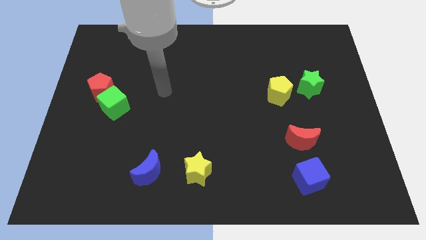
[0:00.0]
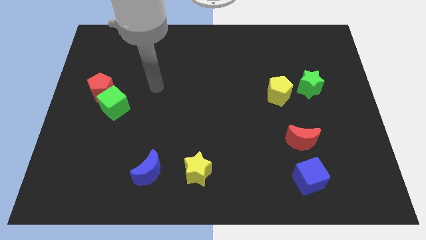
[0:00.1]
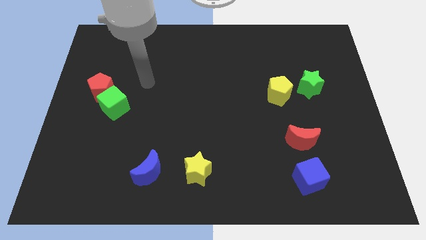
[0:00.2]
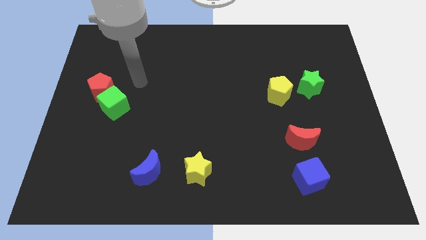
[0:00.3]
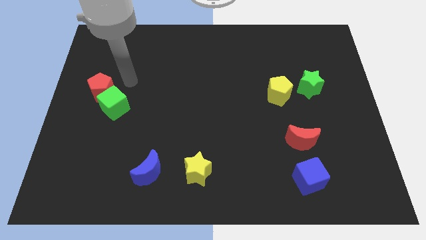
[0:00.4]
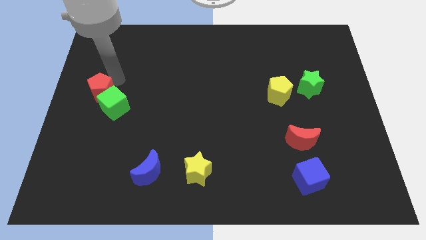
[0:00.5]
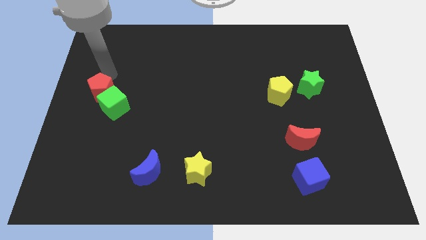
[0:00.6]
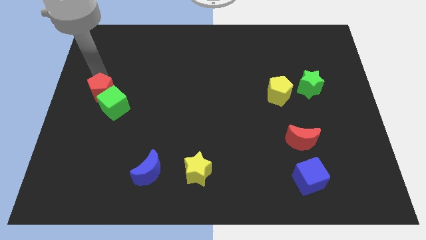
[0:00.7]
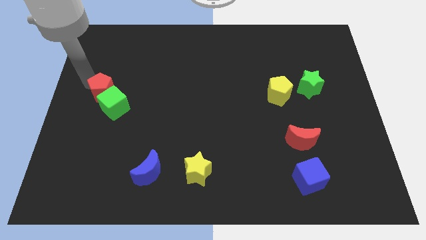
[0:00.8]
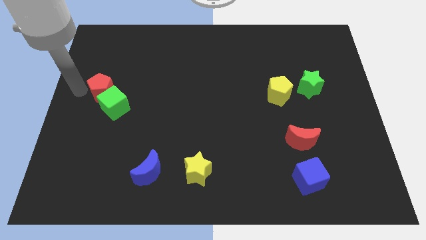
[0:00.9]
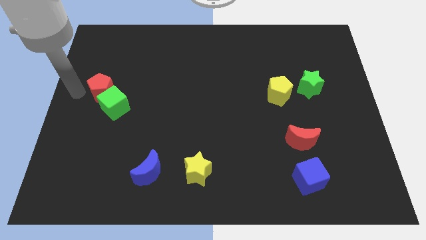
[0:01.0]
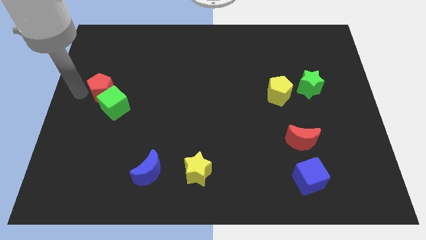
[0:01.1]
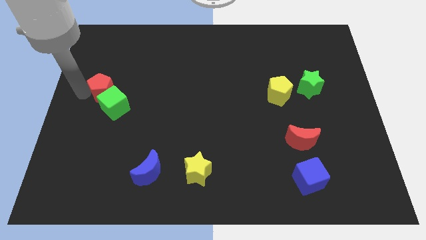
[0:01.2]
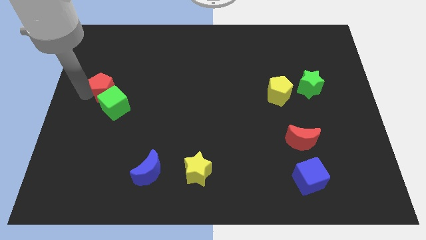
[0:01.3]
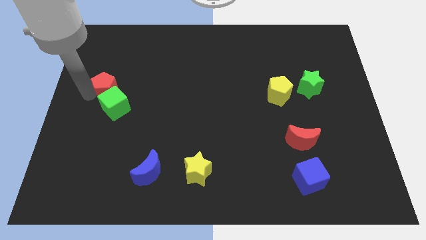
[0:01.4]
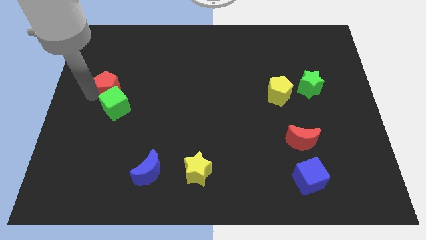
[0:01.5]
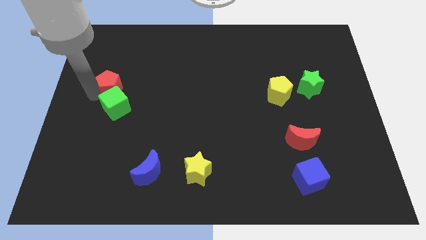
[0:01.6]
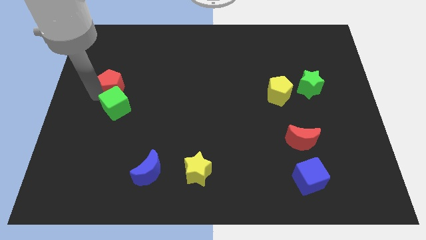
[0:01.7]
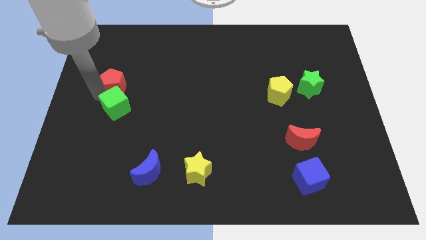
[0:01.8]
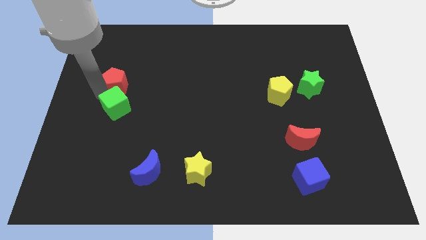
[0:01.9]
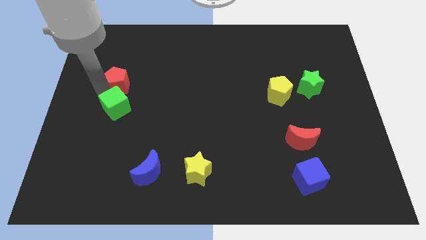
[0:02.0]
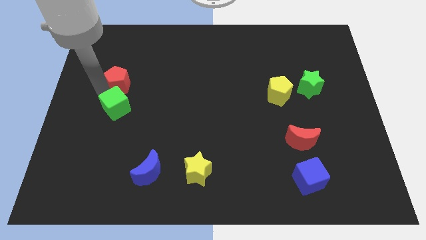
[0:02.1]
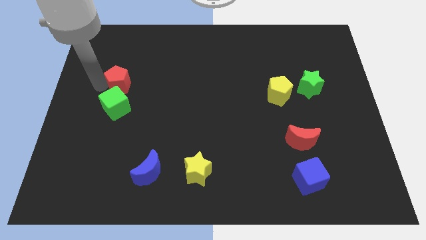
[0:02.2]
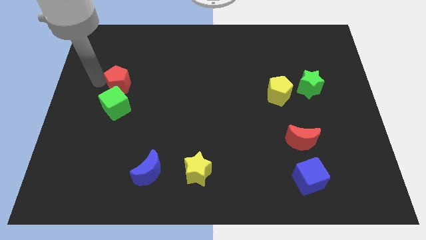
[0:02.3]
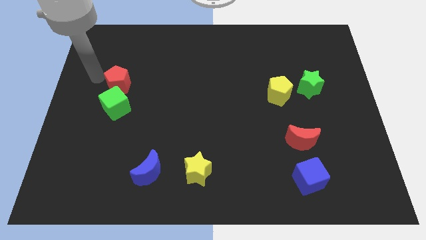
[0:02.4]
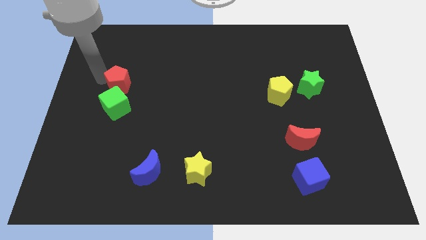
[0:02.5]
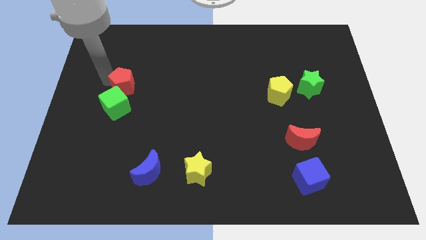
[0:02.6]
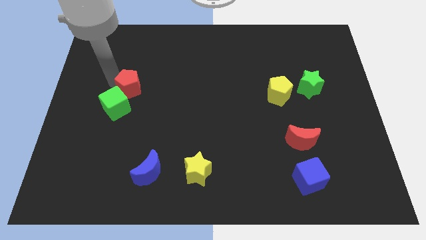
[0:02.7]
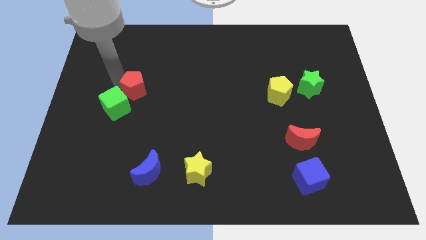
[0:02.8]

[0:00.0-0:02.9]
push the red pentagon a little bit right

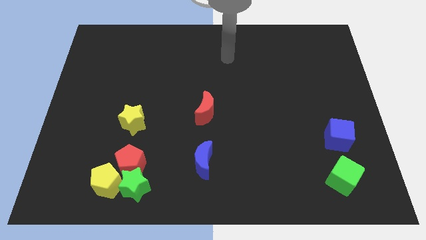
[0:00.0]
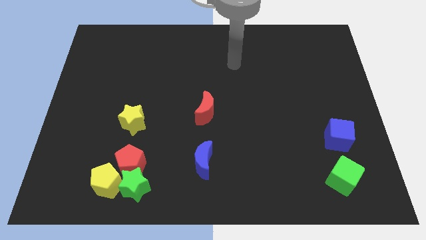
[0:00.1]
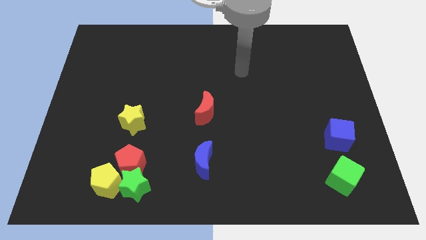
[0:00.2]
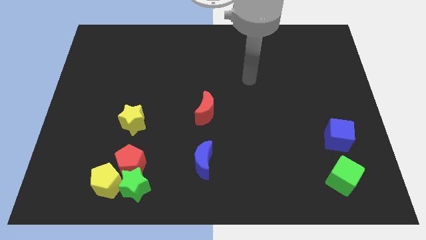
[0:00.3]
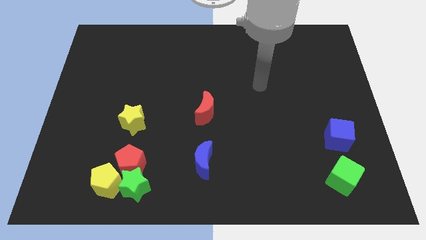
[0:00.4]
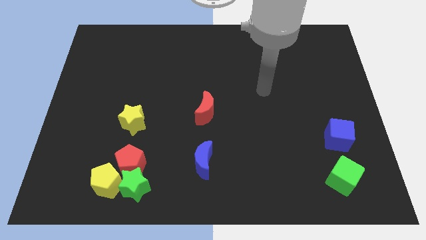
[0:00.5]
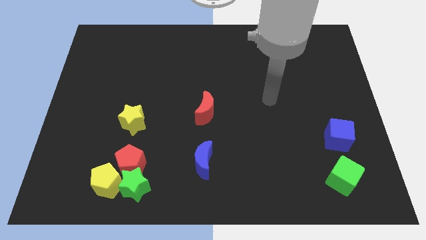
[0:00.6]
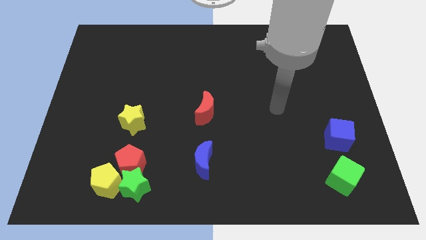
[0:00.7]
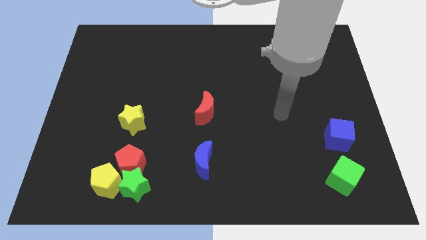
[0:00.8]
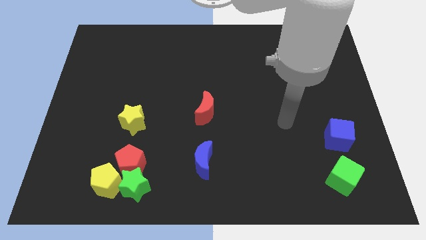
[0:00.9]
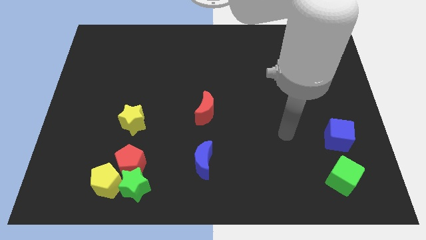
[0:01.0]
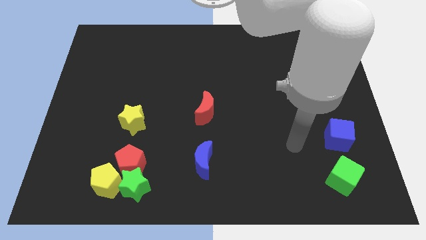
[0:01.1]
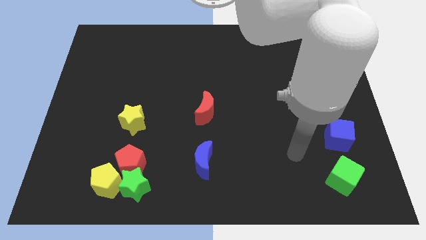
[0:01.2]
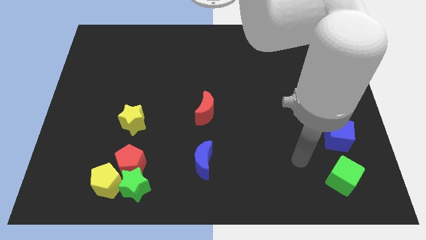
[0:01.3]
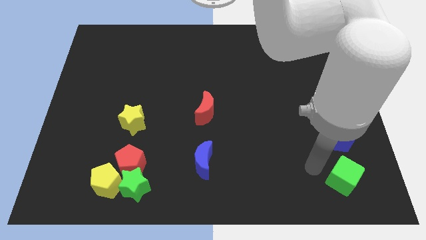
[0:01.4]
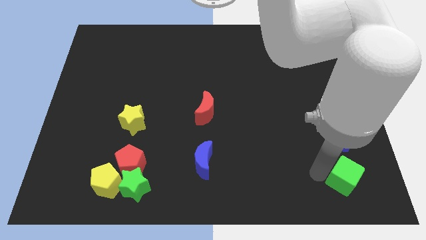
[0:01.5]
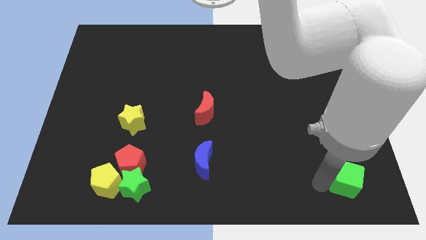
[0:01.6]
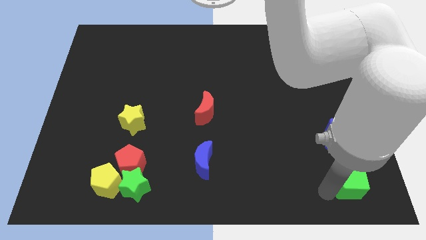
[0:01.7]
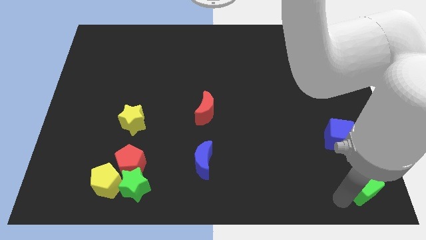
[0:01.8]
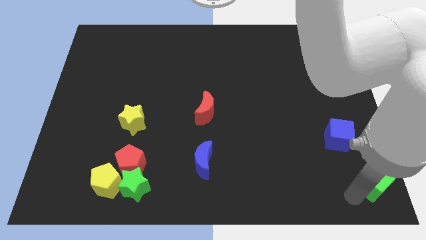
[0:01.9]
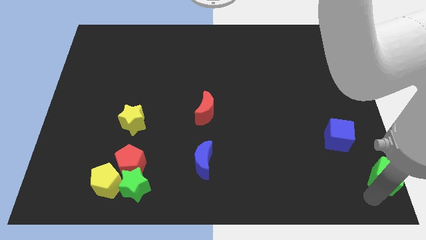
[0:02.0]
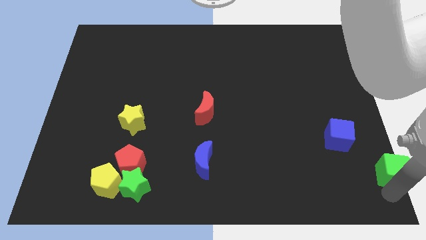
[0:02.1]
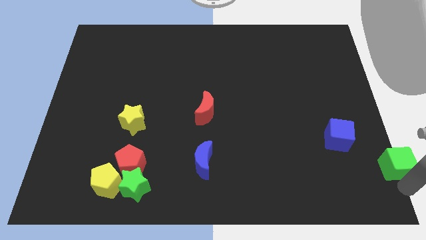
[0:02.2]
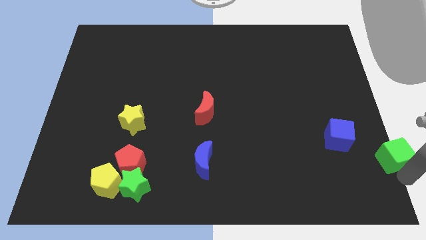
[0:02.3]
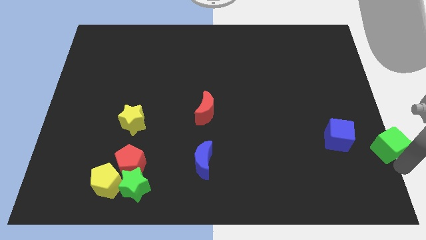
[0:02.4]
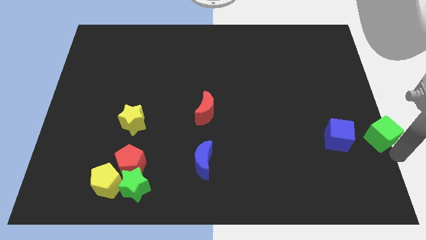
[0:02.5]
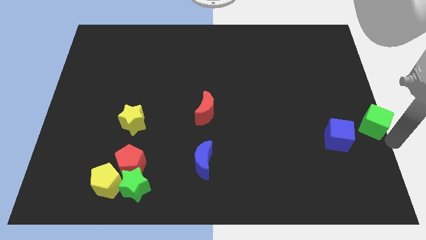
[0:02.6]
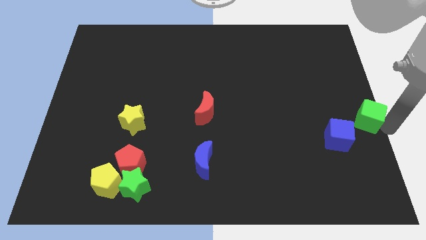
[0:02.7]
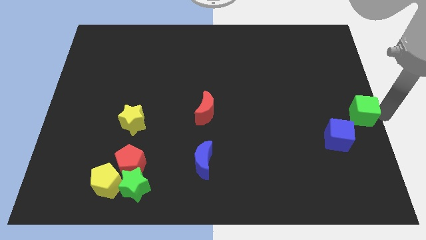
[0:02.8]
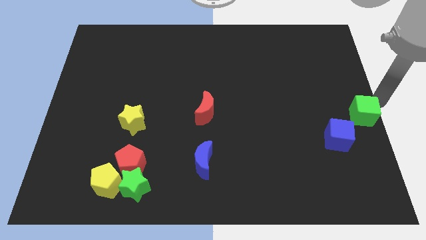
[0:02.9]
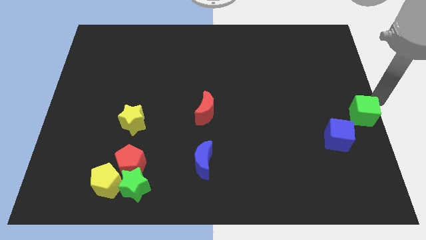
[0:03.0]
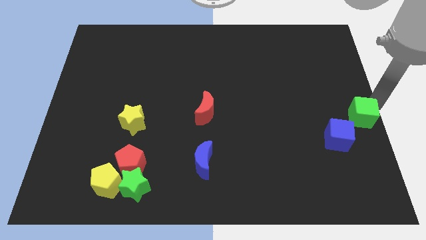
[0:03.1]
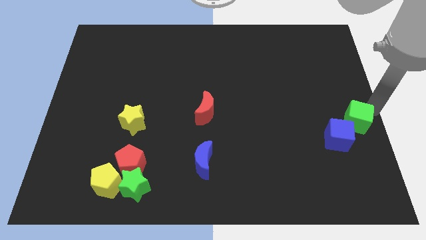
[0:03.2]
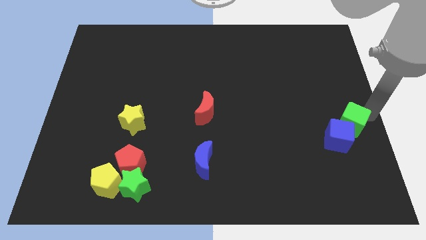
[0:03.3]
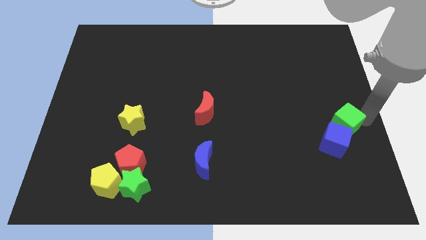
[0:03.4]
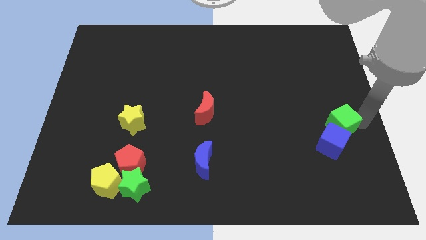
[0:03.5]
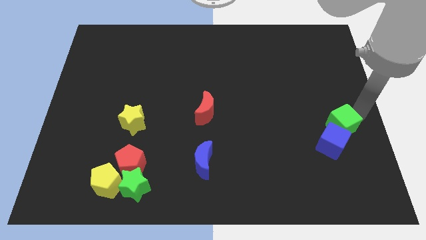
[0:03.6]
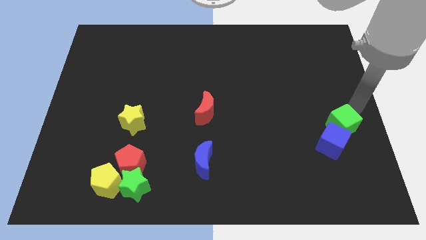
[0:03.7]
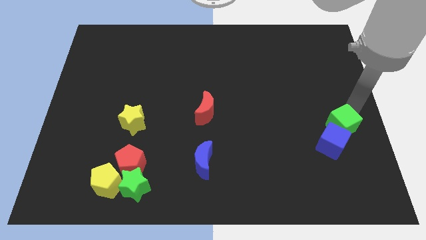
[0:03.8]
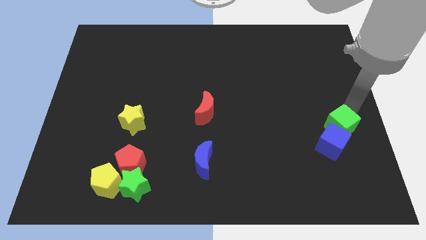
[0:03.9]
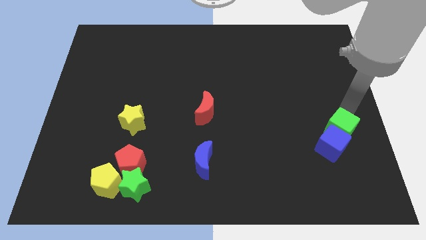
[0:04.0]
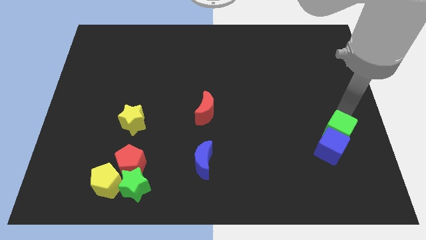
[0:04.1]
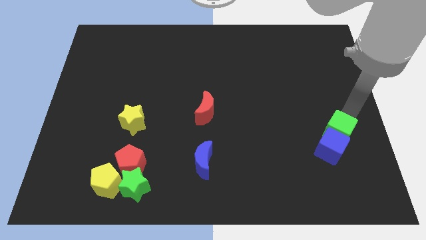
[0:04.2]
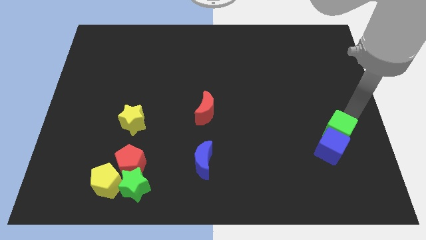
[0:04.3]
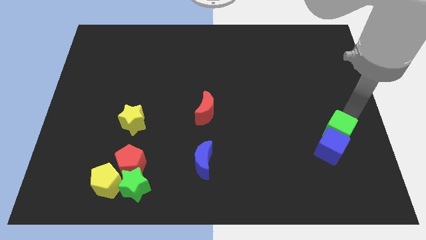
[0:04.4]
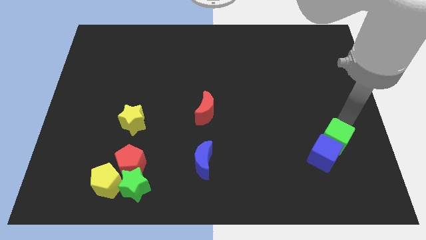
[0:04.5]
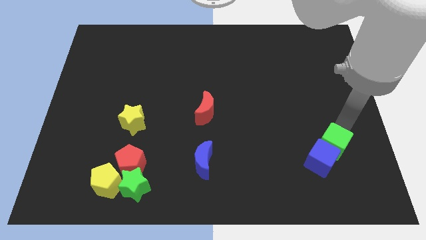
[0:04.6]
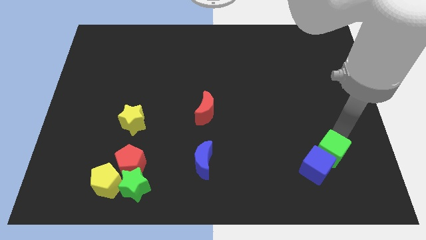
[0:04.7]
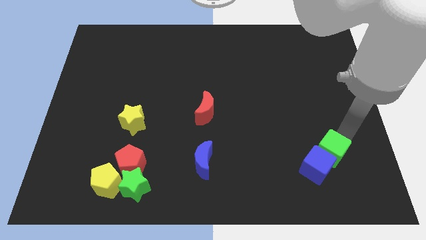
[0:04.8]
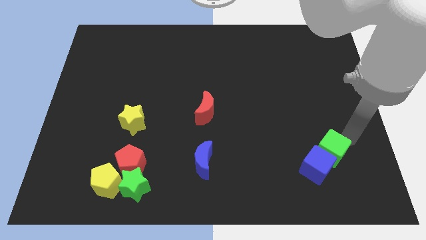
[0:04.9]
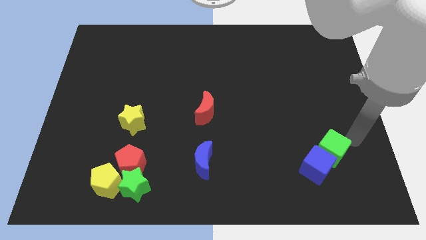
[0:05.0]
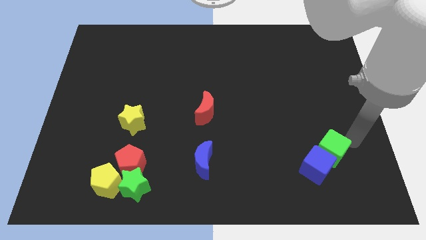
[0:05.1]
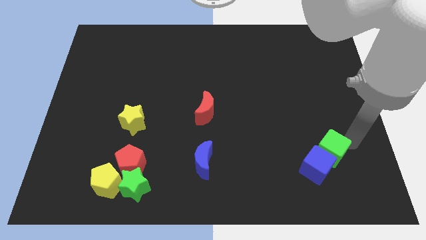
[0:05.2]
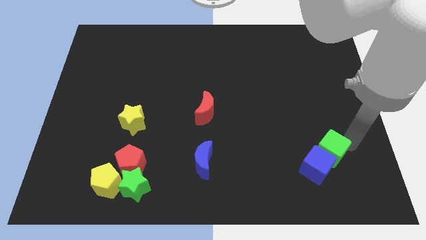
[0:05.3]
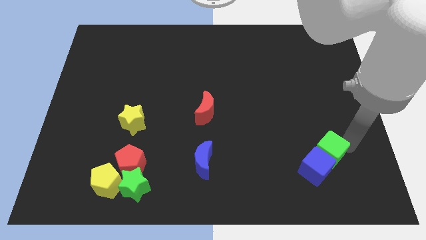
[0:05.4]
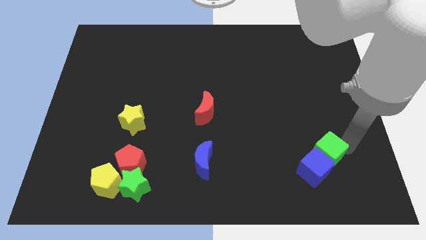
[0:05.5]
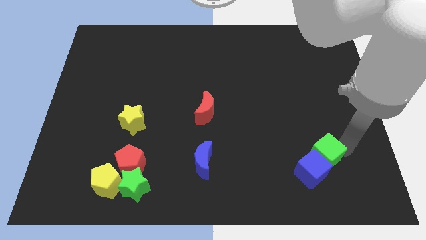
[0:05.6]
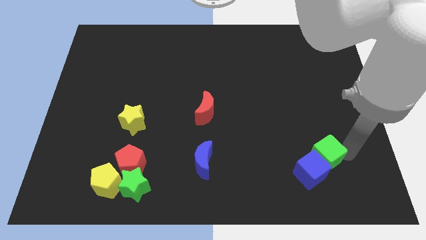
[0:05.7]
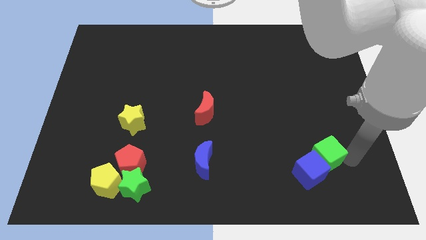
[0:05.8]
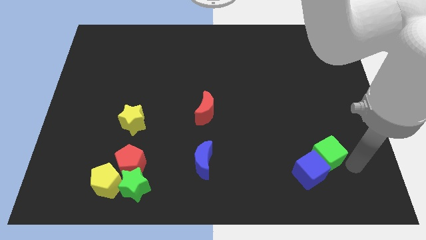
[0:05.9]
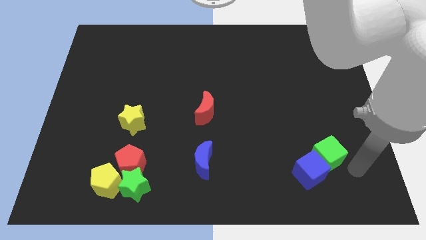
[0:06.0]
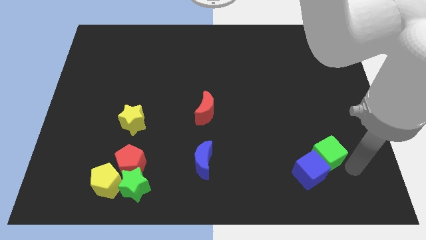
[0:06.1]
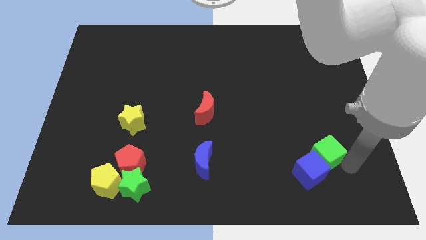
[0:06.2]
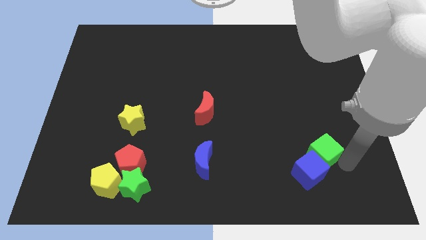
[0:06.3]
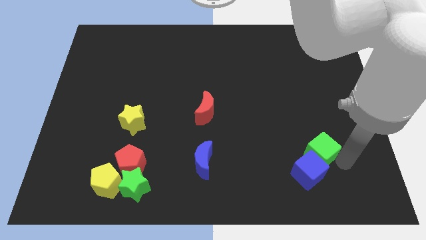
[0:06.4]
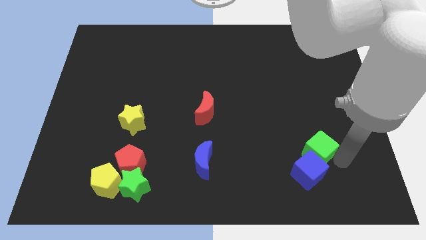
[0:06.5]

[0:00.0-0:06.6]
push the green cube somewhat up and to the left diagonally
